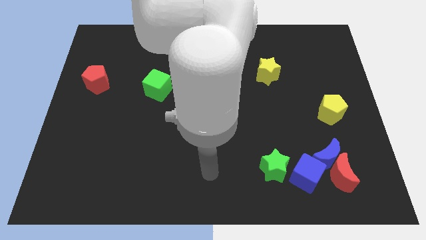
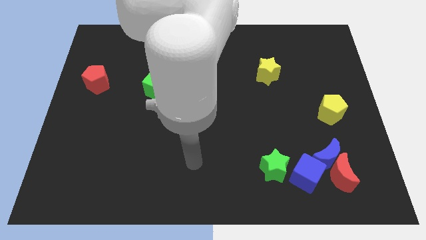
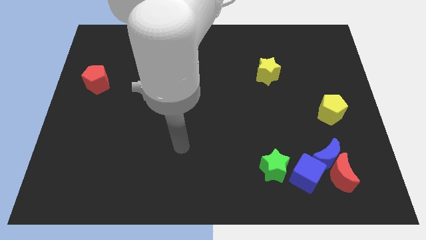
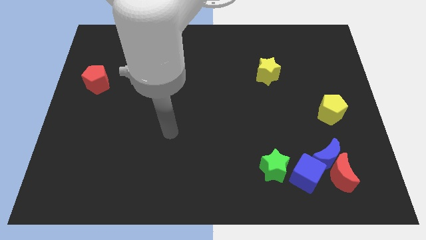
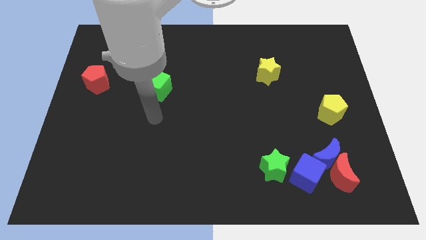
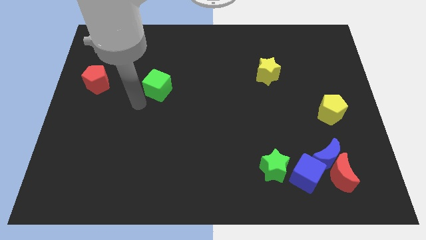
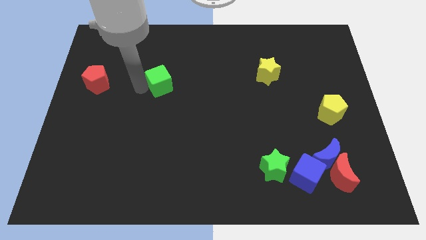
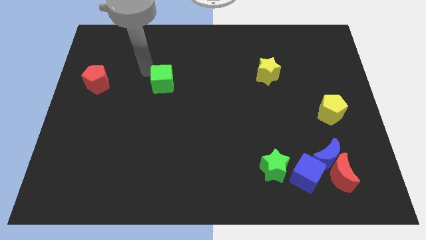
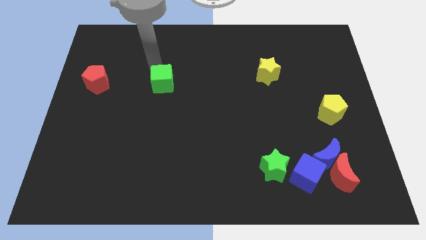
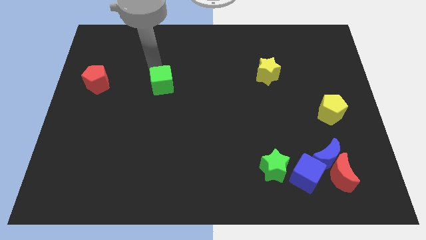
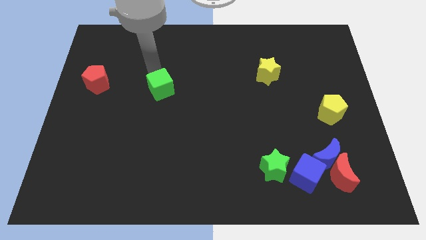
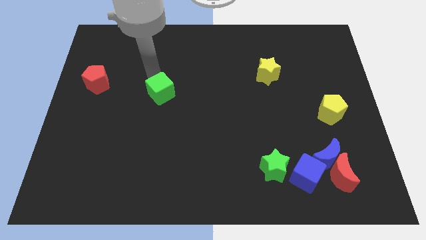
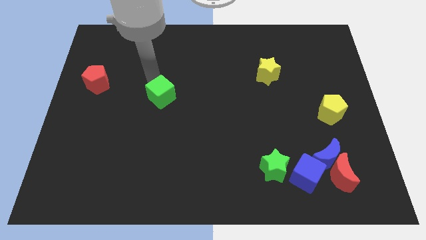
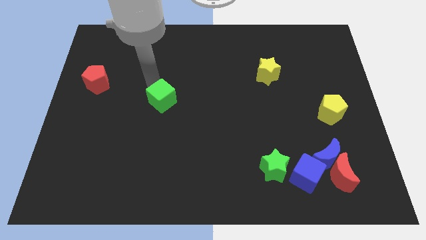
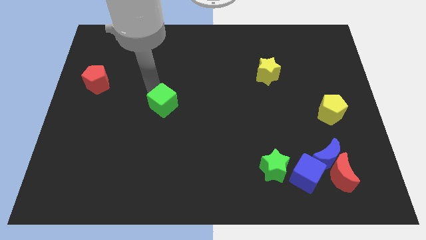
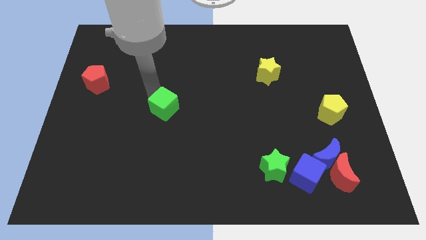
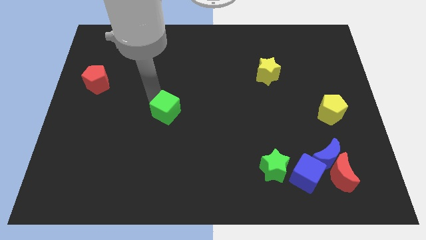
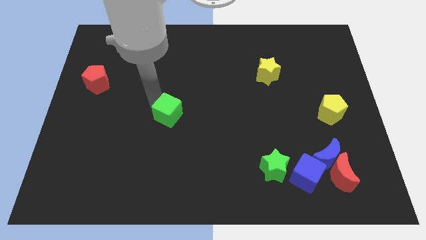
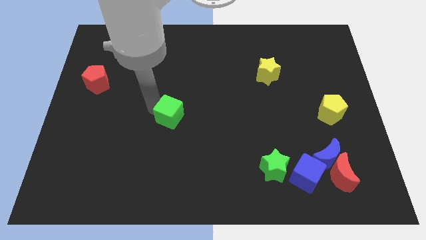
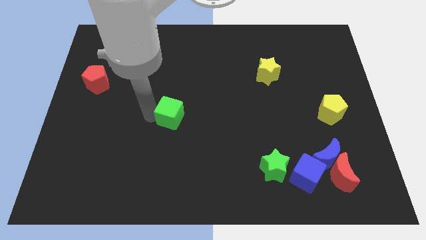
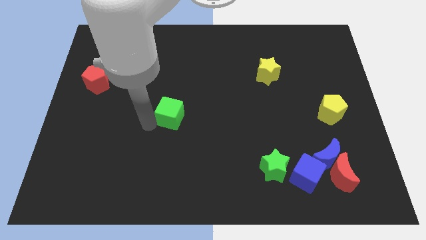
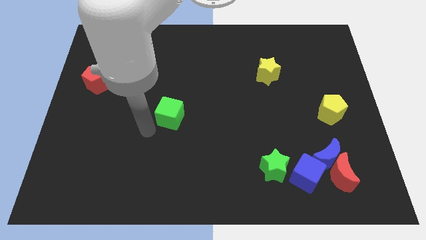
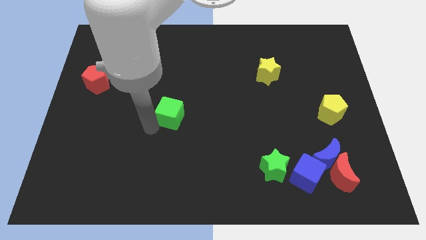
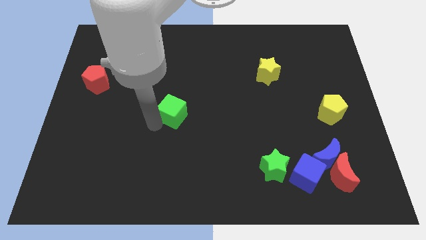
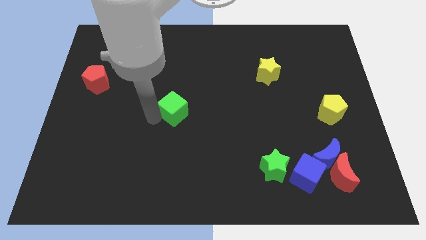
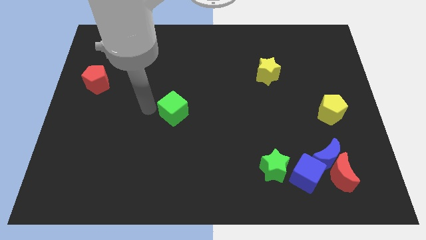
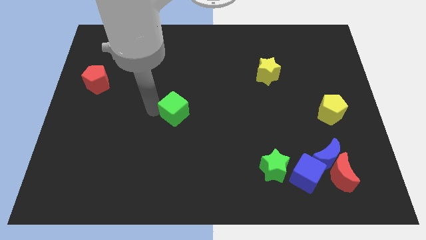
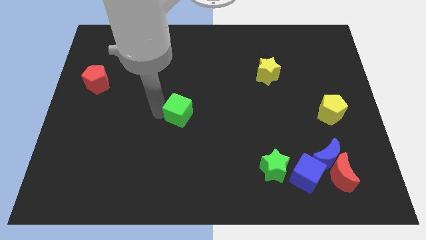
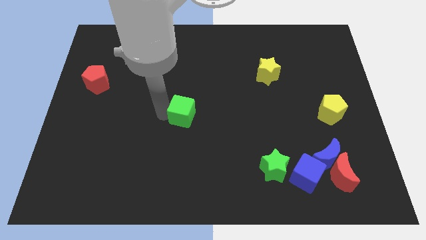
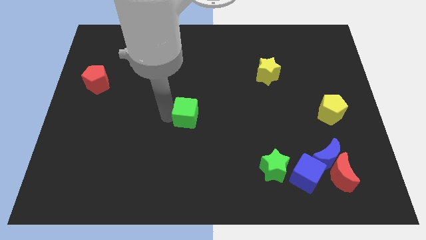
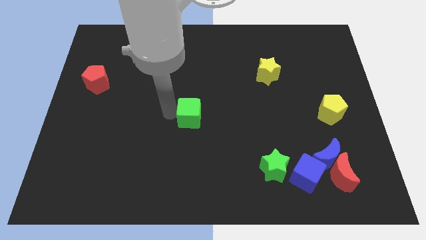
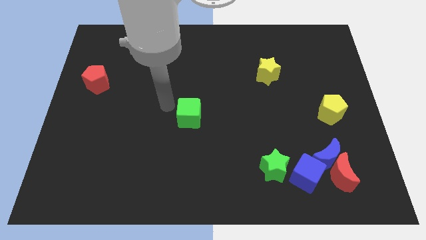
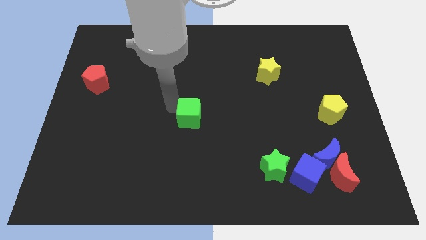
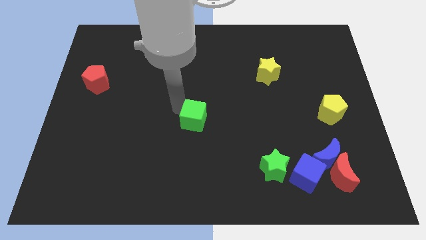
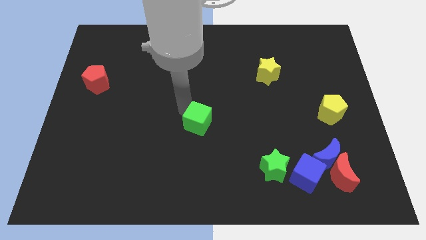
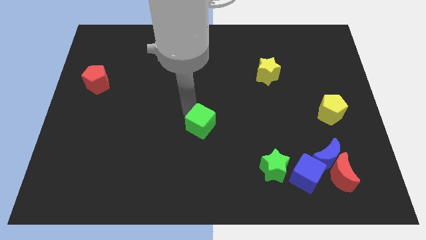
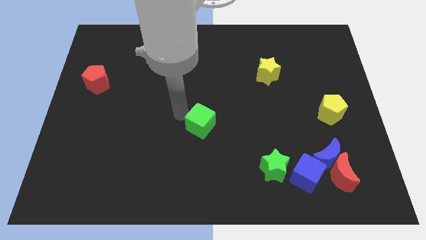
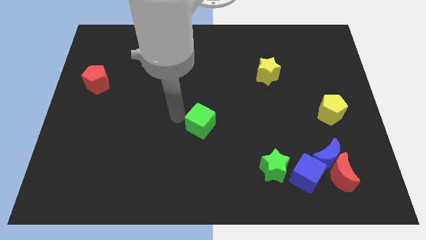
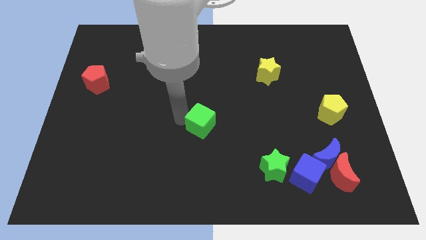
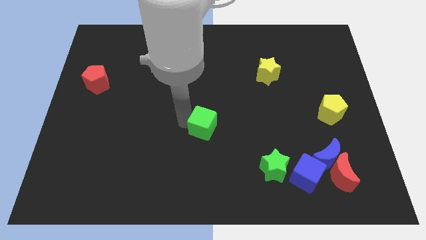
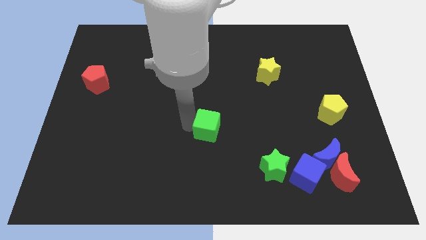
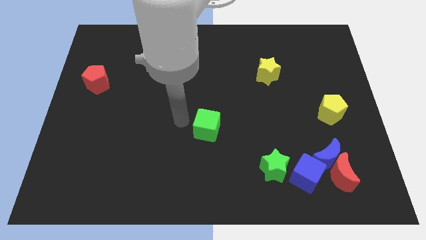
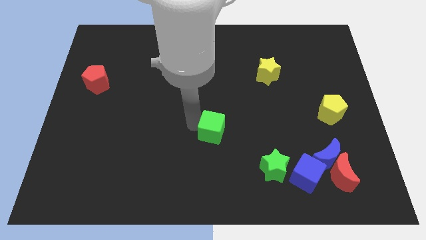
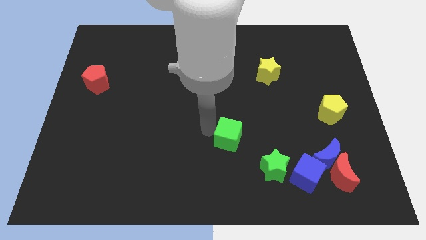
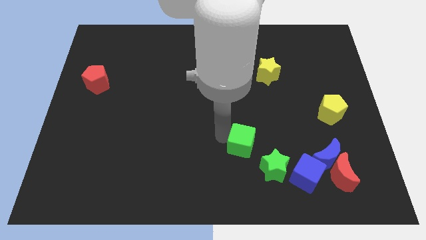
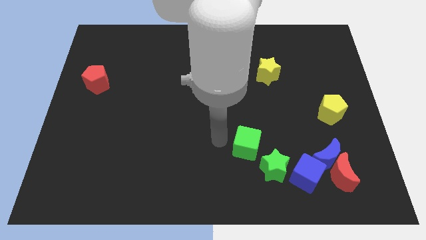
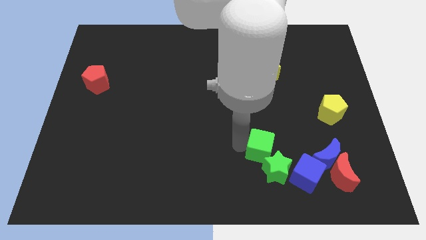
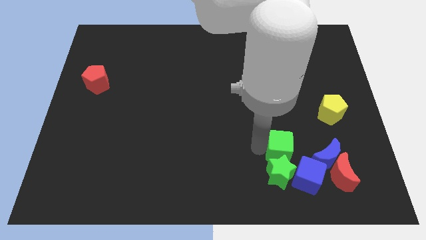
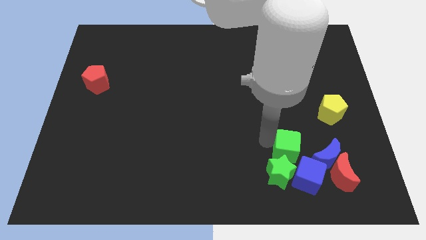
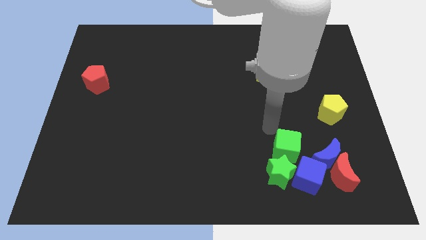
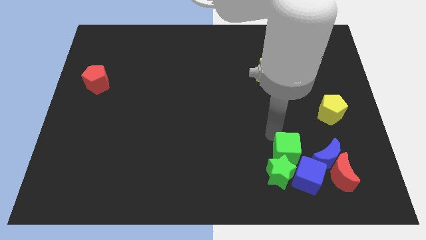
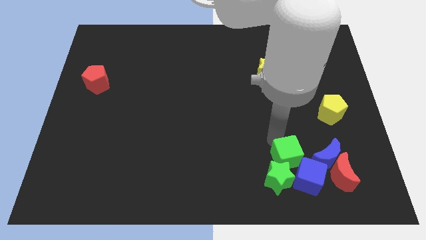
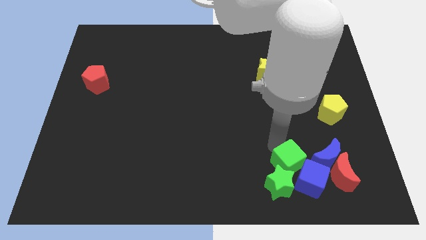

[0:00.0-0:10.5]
put the green cube to the blue cube

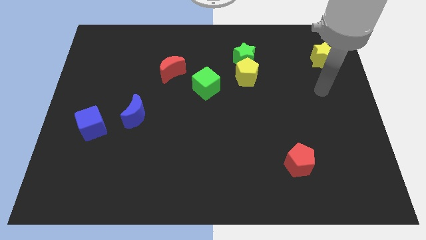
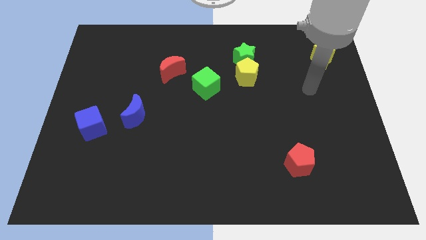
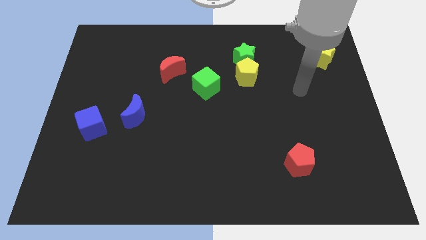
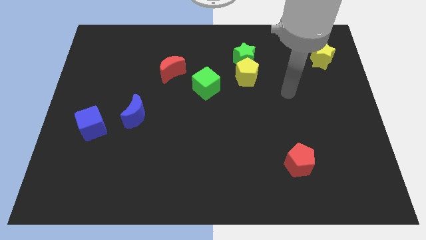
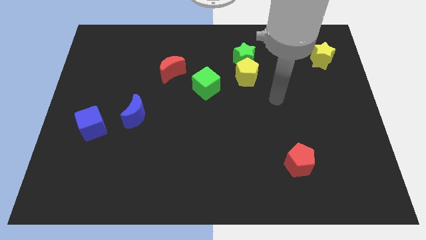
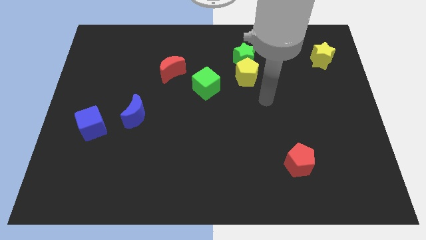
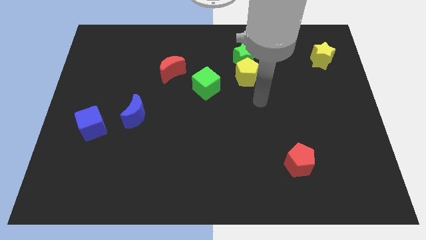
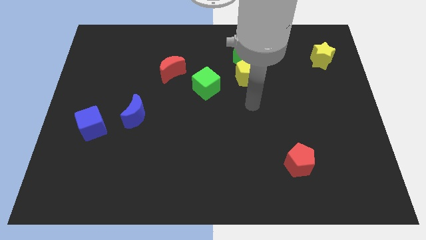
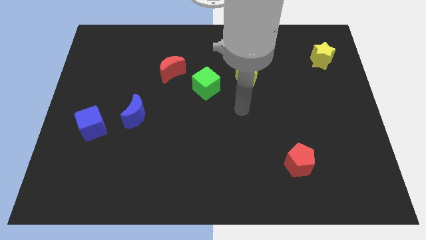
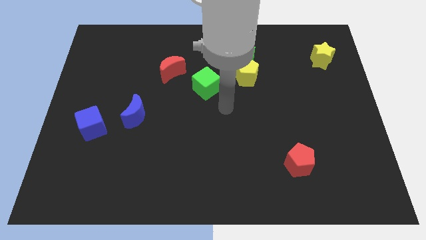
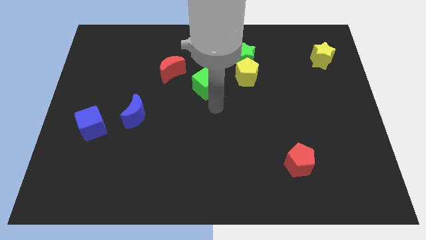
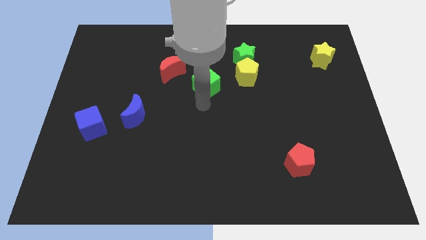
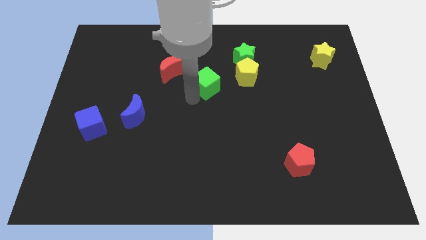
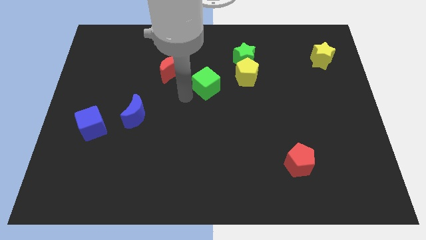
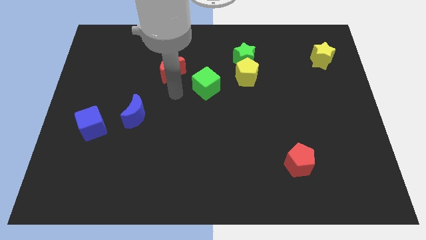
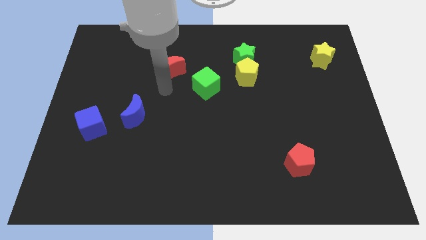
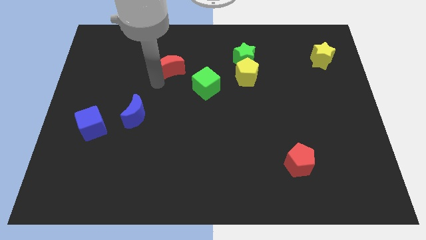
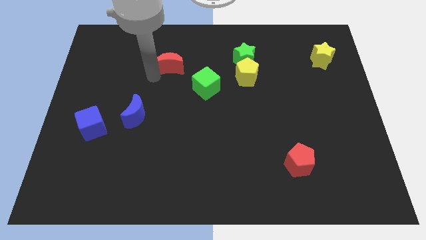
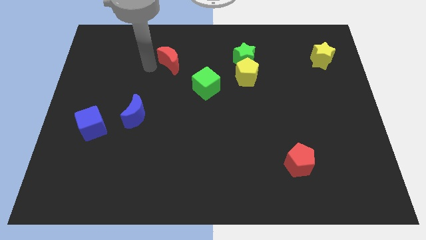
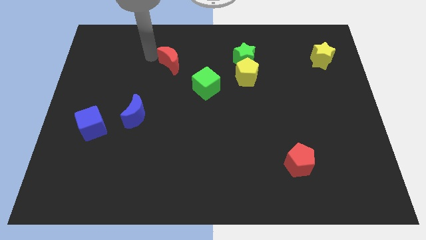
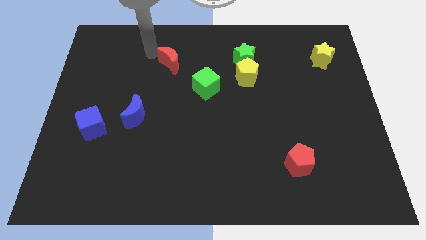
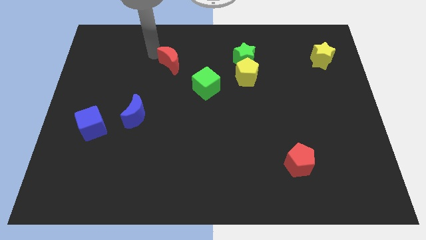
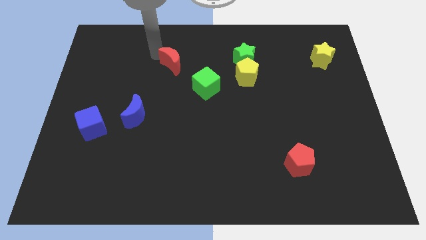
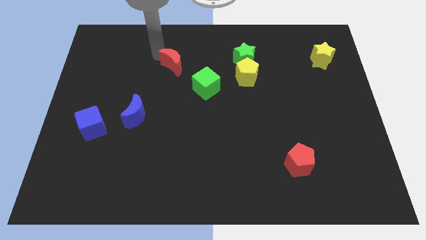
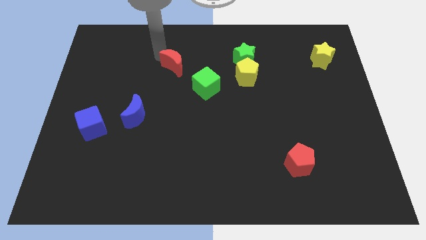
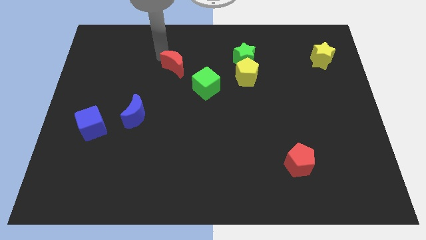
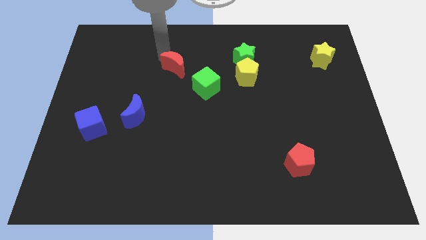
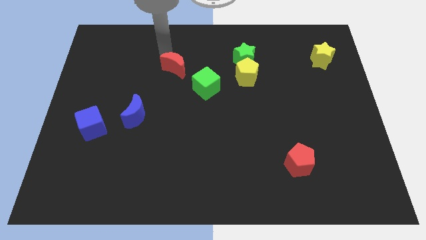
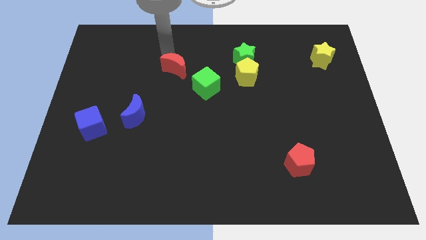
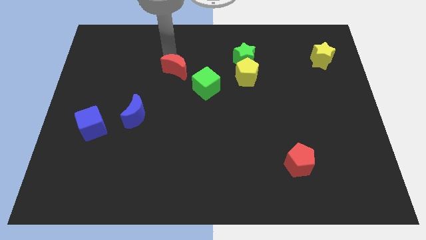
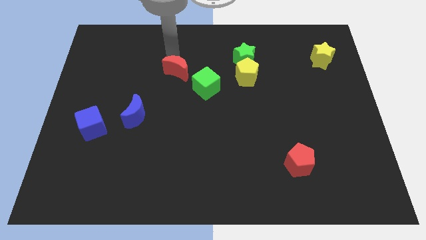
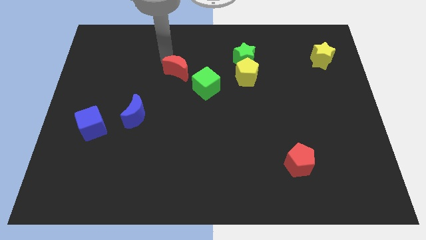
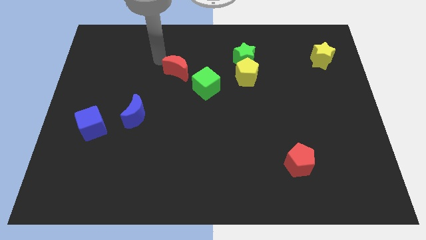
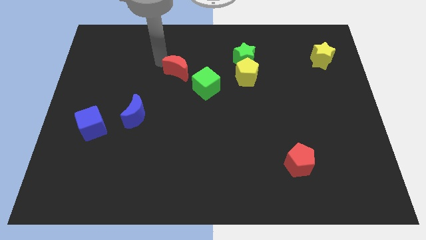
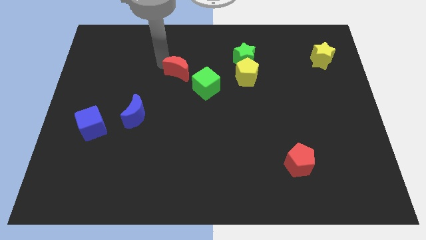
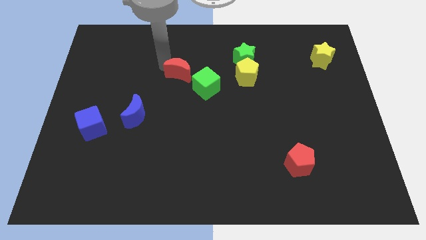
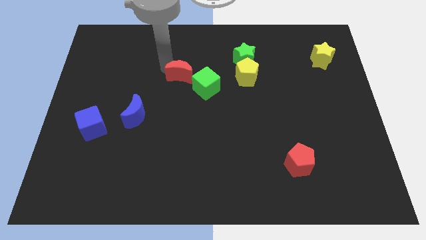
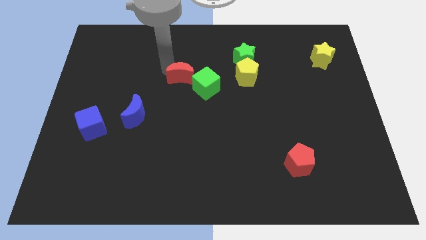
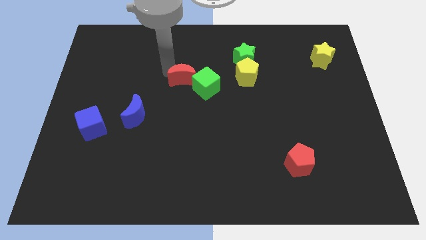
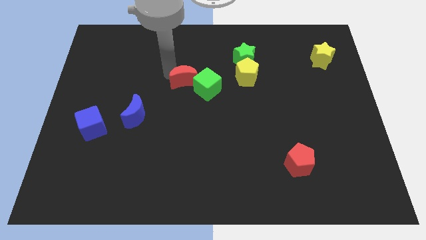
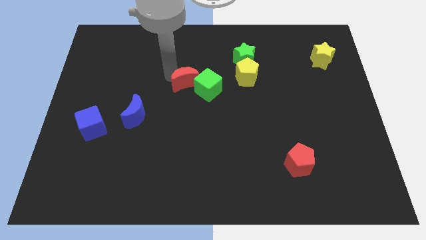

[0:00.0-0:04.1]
put the red moon next to the green cube
